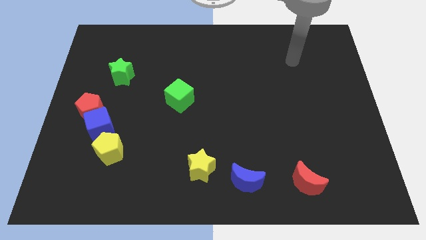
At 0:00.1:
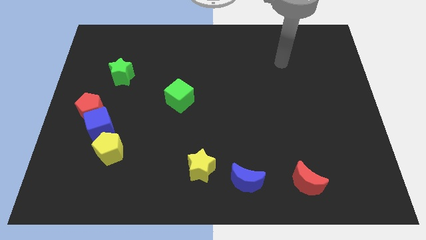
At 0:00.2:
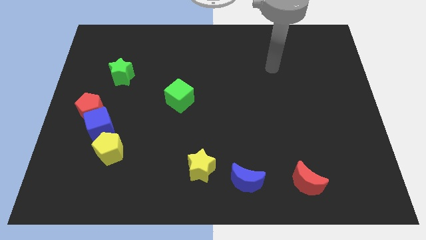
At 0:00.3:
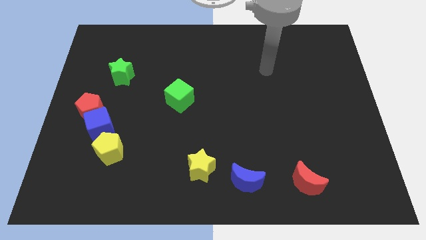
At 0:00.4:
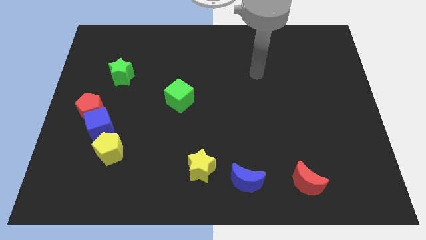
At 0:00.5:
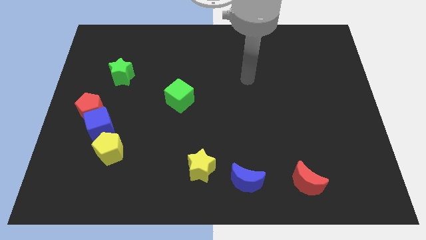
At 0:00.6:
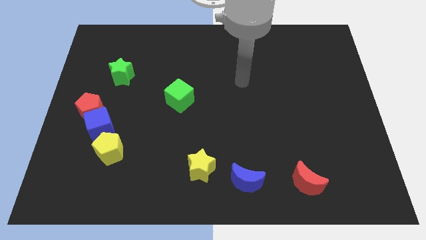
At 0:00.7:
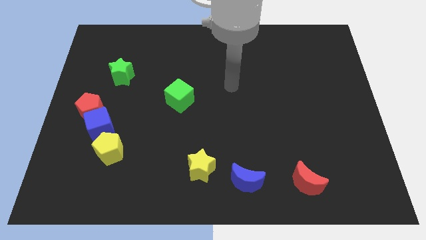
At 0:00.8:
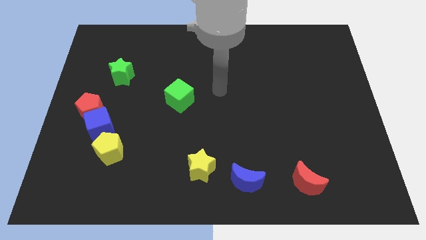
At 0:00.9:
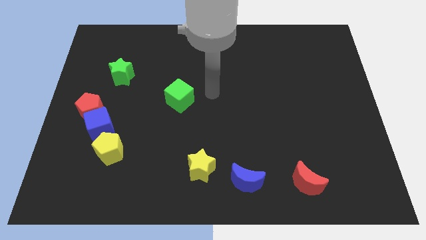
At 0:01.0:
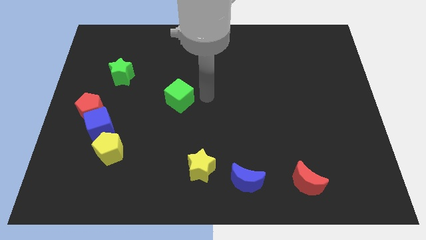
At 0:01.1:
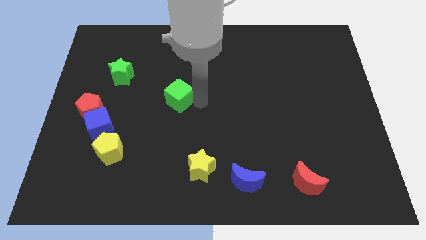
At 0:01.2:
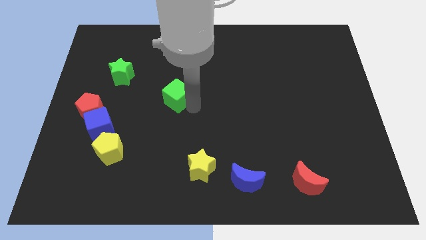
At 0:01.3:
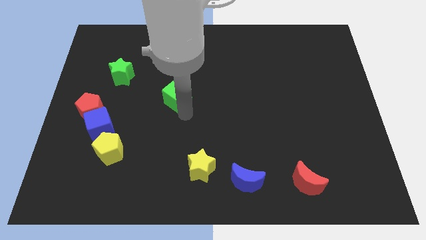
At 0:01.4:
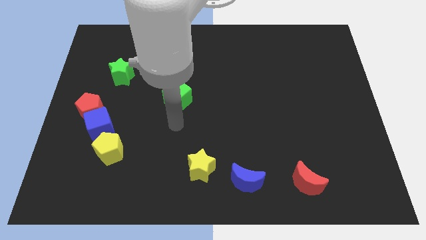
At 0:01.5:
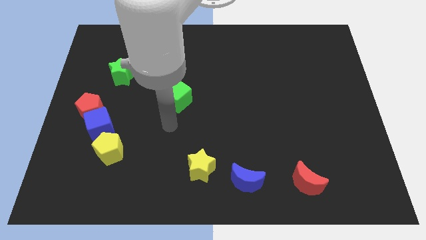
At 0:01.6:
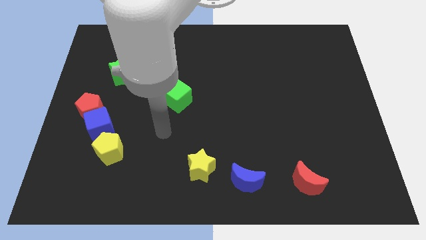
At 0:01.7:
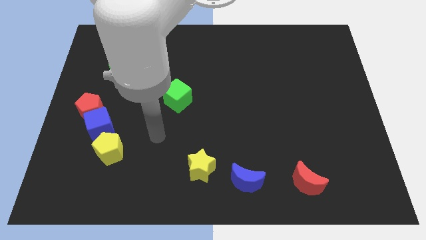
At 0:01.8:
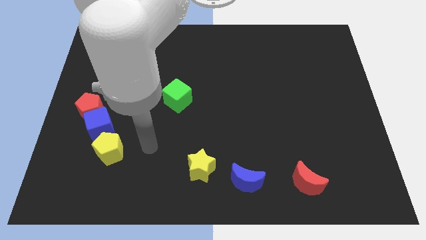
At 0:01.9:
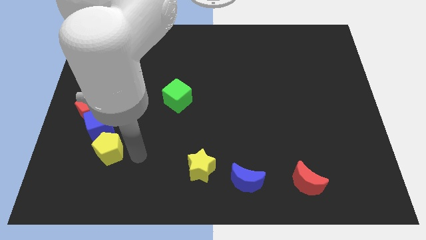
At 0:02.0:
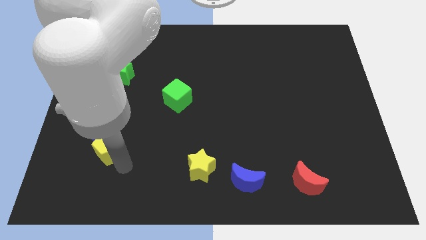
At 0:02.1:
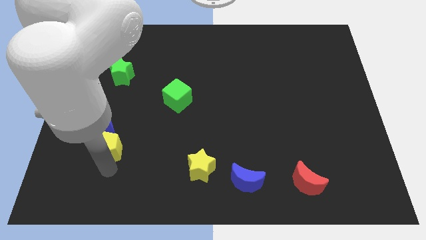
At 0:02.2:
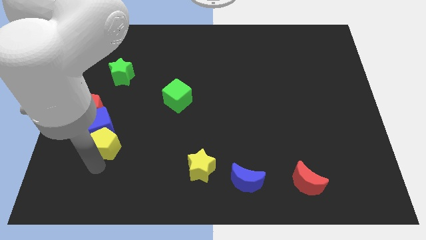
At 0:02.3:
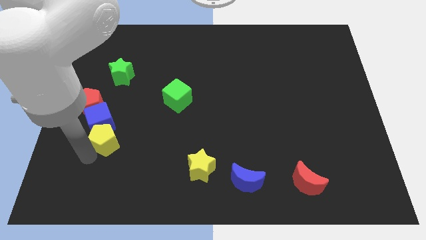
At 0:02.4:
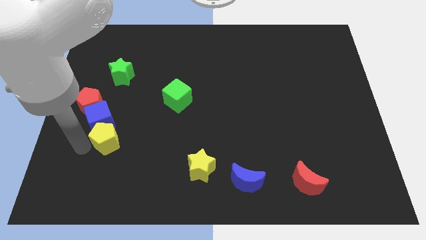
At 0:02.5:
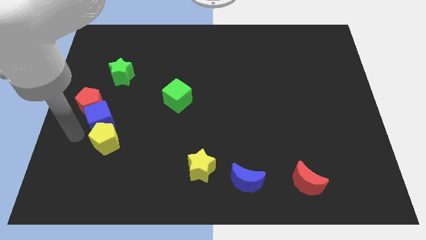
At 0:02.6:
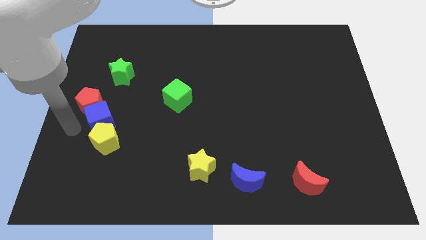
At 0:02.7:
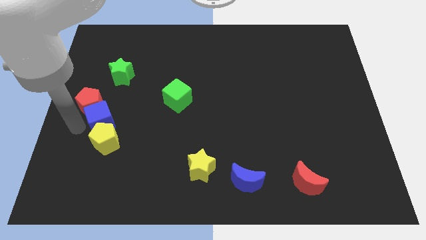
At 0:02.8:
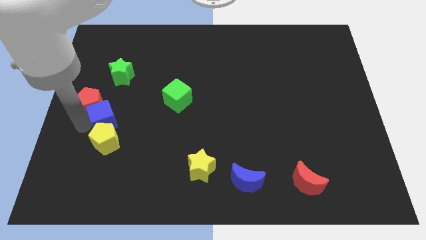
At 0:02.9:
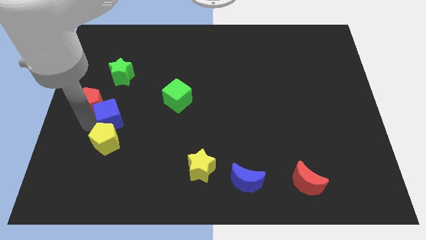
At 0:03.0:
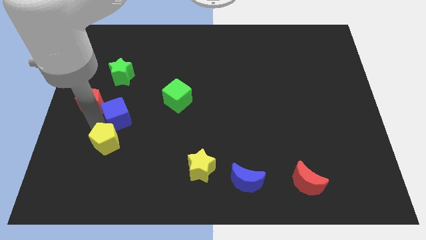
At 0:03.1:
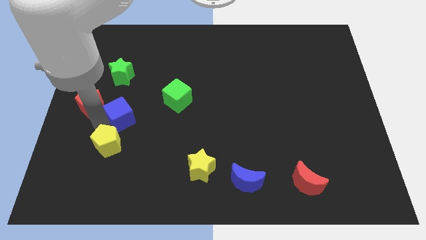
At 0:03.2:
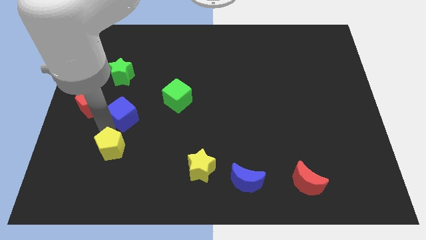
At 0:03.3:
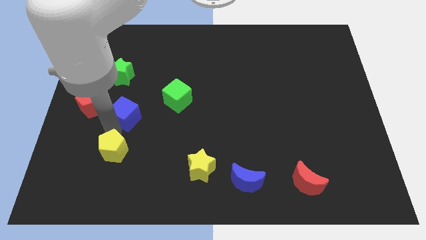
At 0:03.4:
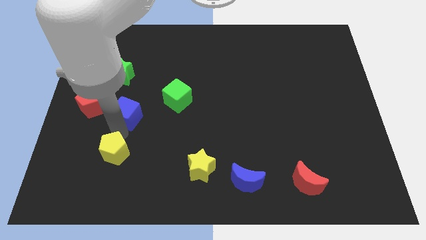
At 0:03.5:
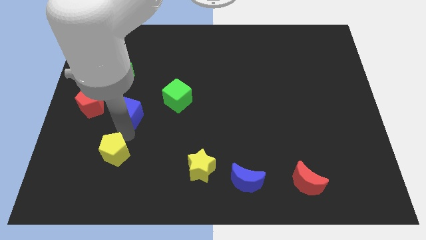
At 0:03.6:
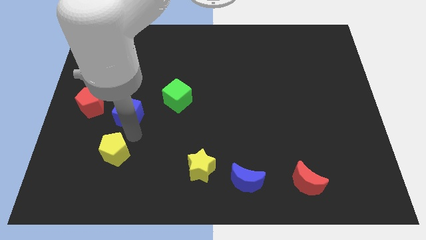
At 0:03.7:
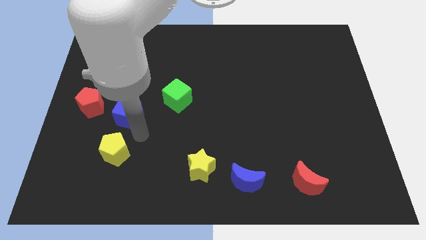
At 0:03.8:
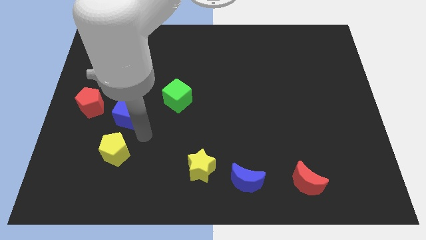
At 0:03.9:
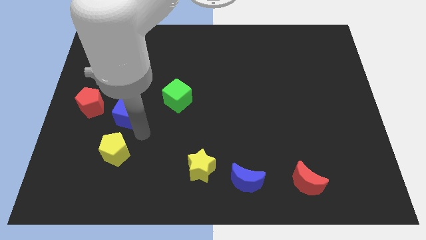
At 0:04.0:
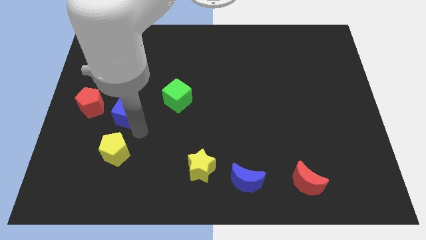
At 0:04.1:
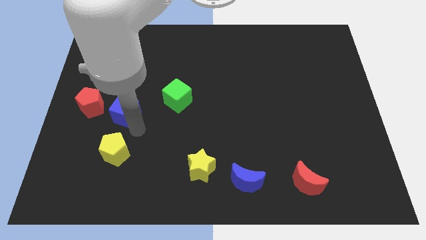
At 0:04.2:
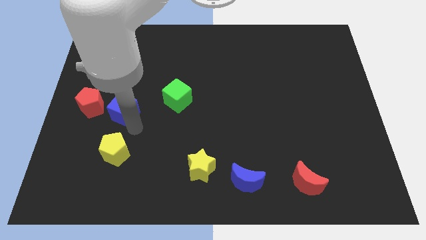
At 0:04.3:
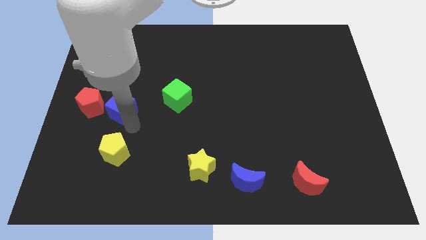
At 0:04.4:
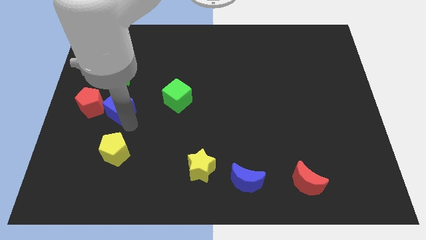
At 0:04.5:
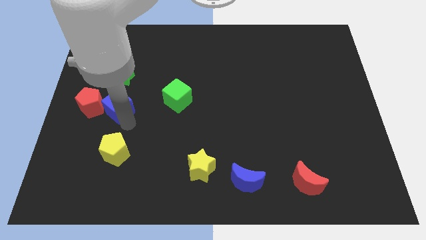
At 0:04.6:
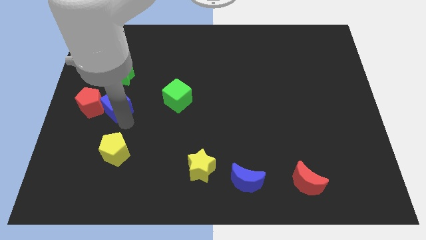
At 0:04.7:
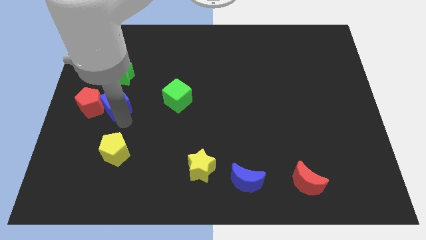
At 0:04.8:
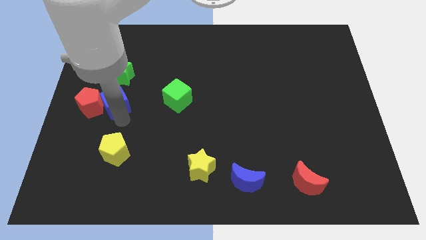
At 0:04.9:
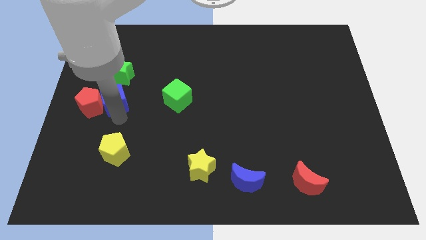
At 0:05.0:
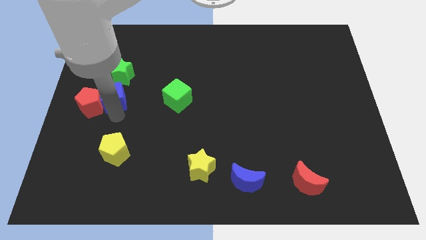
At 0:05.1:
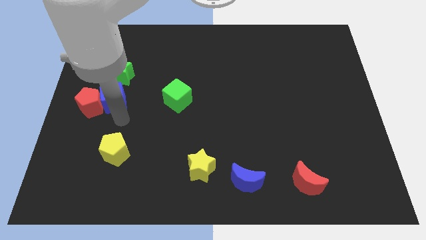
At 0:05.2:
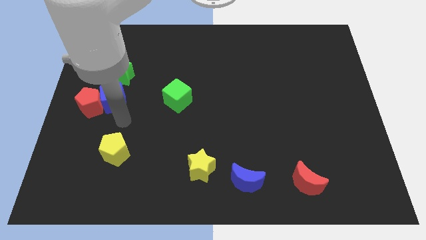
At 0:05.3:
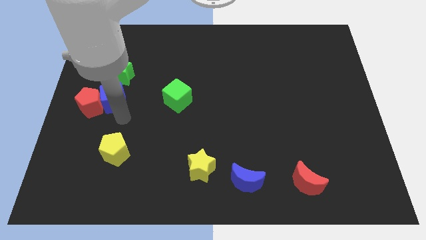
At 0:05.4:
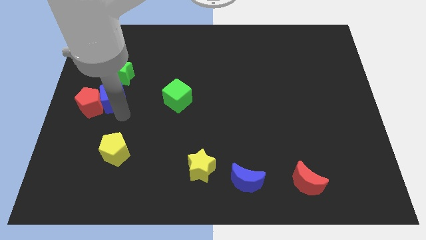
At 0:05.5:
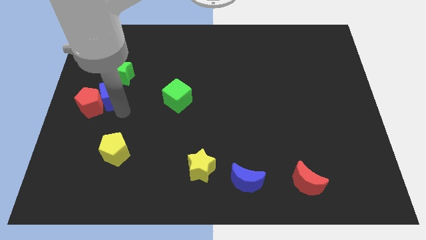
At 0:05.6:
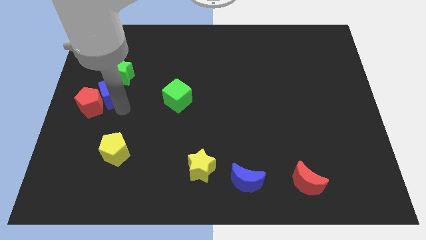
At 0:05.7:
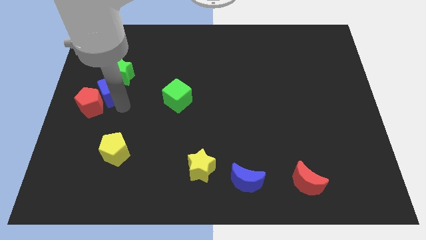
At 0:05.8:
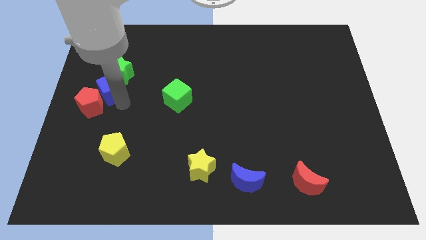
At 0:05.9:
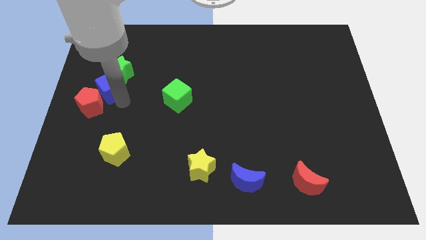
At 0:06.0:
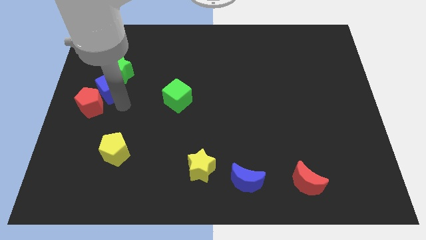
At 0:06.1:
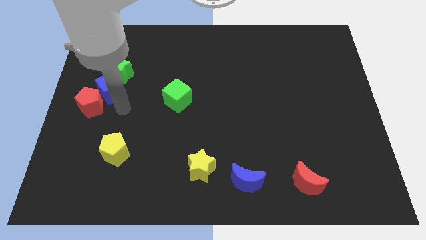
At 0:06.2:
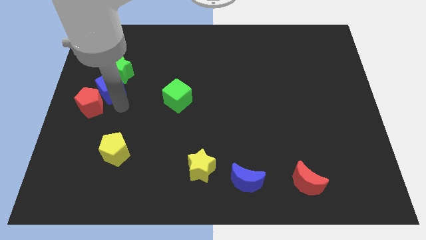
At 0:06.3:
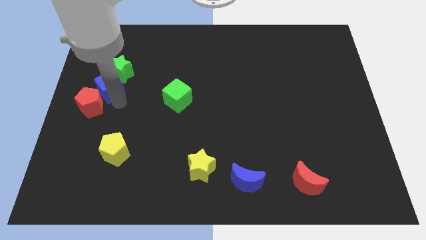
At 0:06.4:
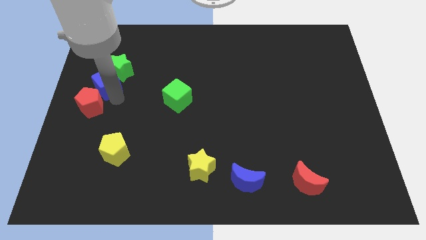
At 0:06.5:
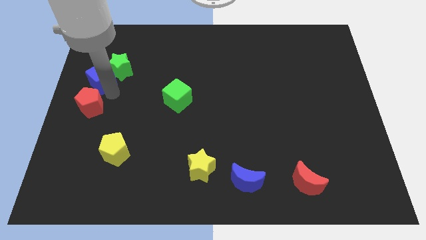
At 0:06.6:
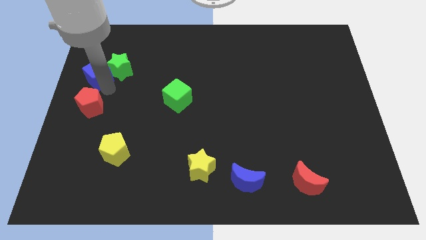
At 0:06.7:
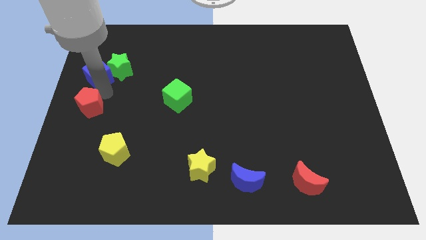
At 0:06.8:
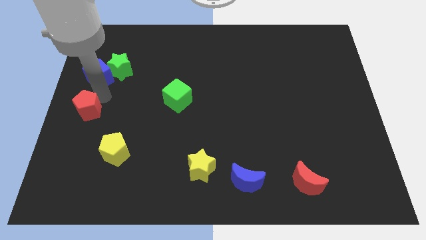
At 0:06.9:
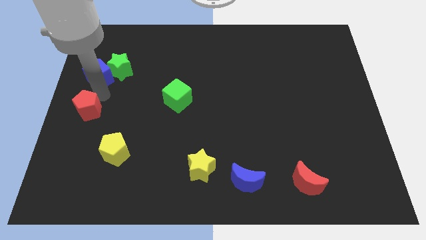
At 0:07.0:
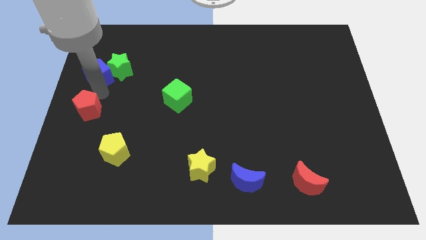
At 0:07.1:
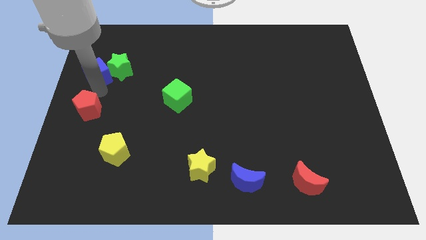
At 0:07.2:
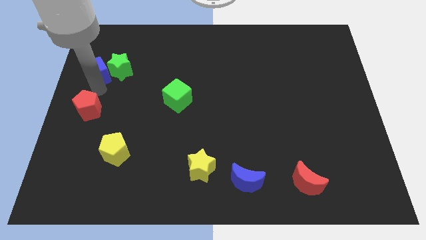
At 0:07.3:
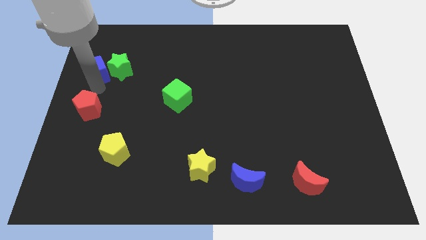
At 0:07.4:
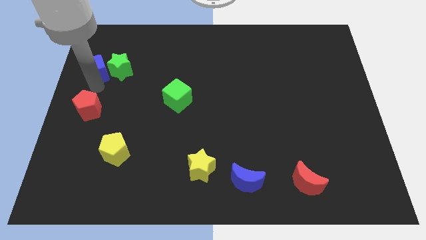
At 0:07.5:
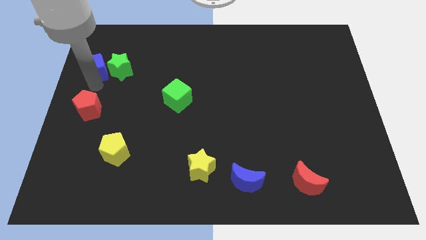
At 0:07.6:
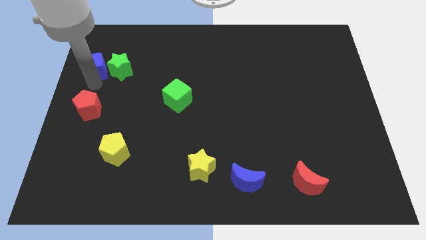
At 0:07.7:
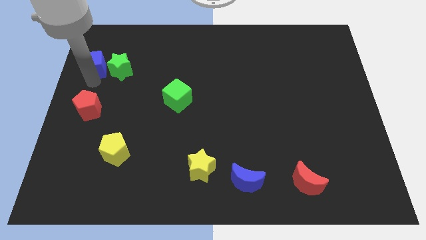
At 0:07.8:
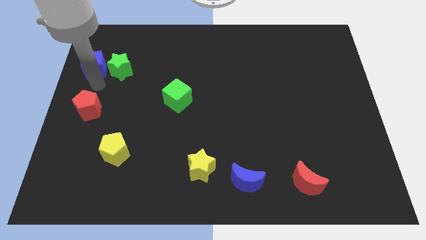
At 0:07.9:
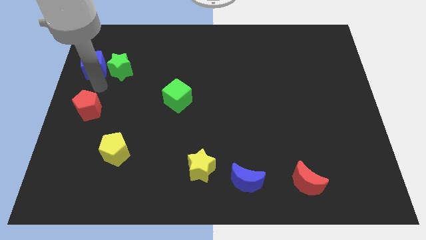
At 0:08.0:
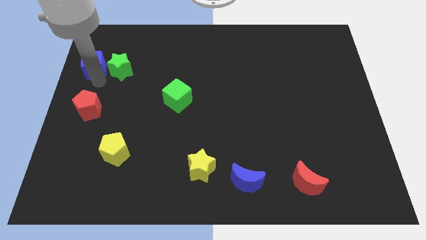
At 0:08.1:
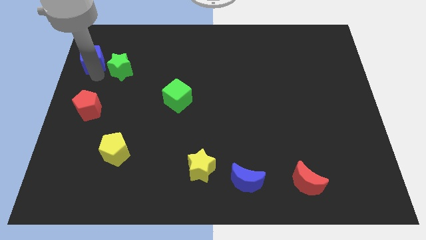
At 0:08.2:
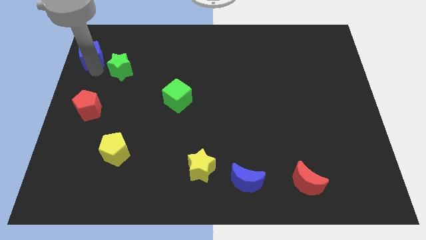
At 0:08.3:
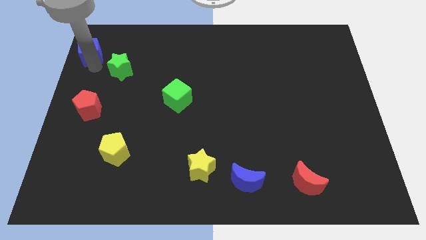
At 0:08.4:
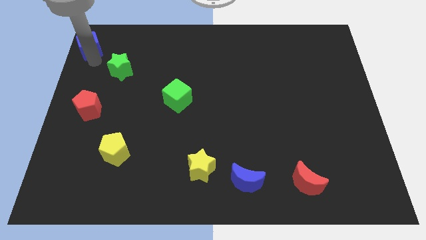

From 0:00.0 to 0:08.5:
move the blue cube to the top left
